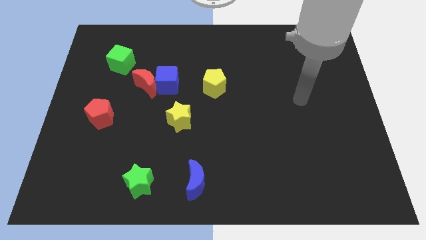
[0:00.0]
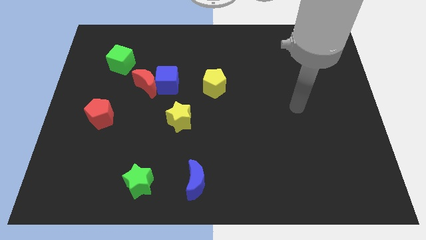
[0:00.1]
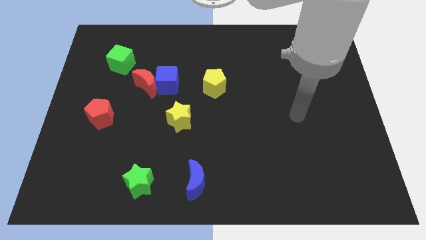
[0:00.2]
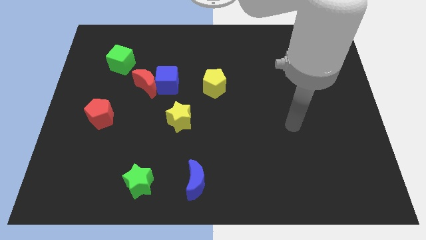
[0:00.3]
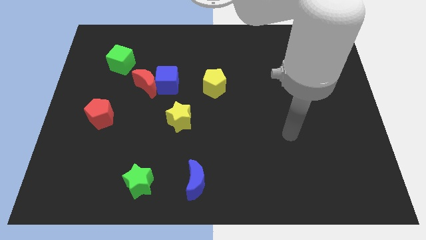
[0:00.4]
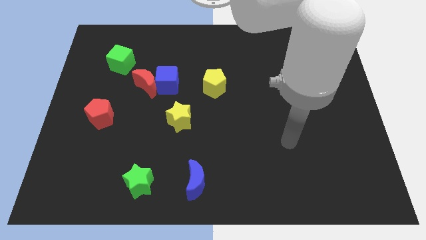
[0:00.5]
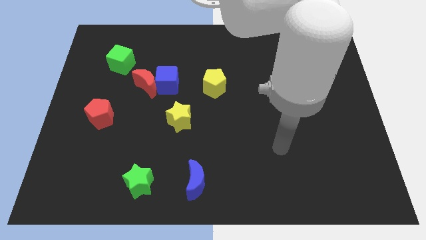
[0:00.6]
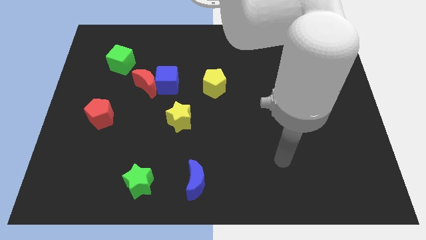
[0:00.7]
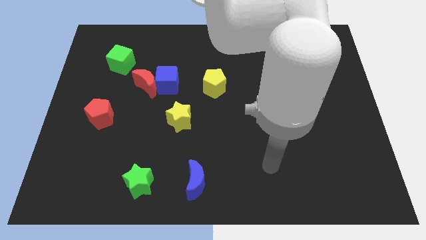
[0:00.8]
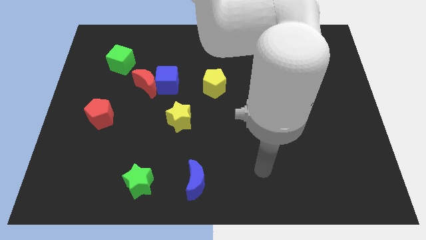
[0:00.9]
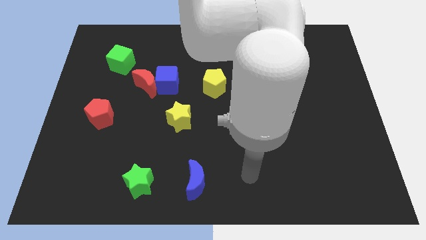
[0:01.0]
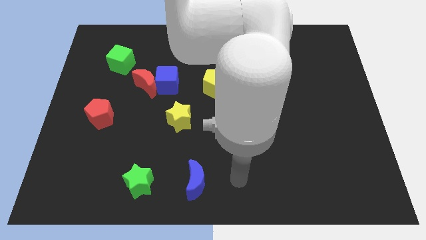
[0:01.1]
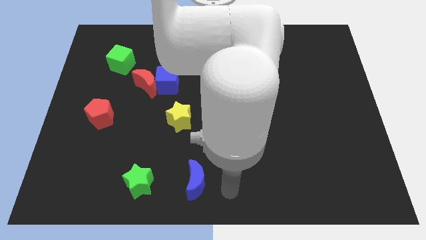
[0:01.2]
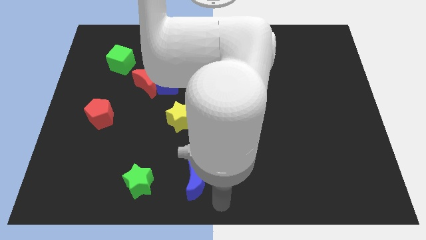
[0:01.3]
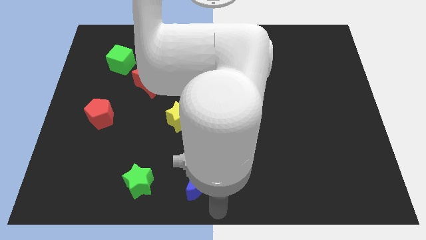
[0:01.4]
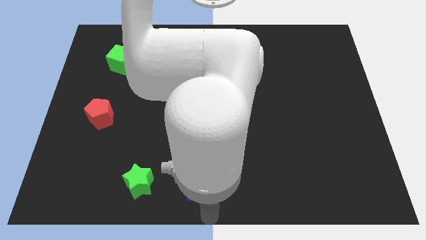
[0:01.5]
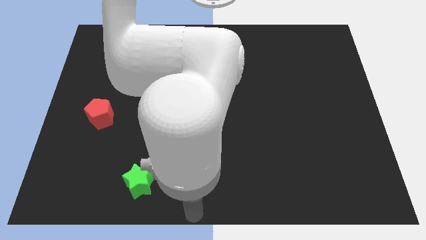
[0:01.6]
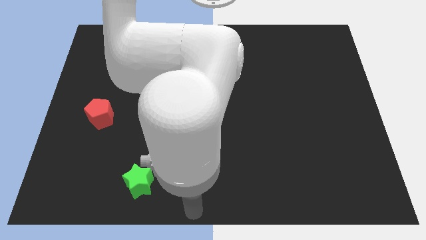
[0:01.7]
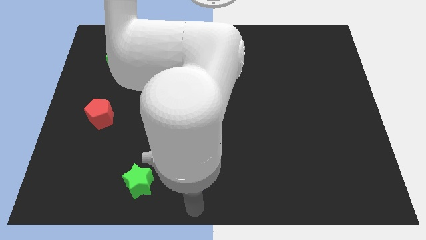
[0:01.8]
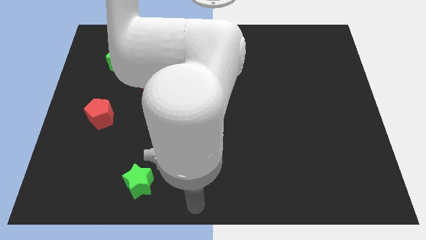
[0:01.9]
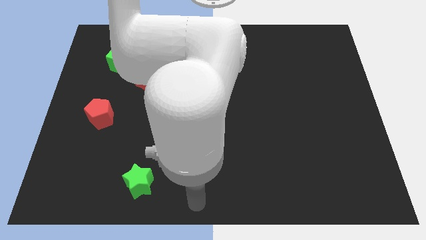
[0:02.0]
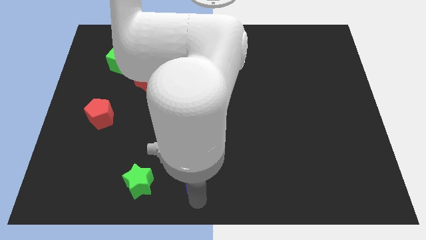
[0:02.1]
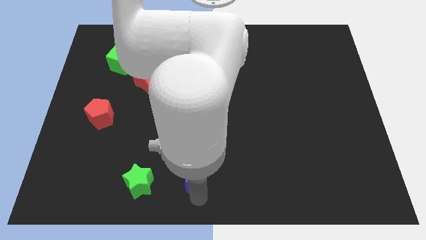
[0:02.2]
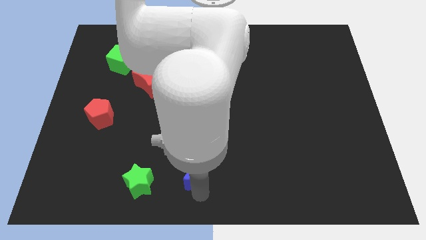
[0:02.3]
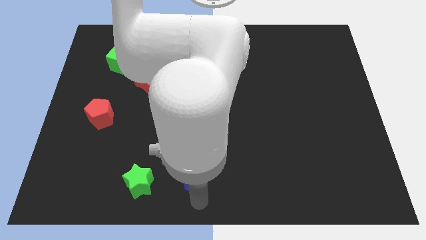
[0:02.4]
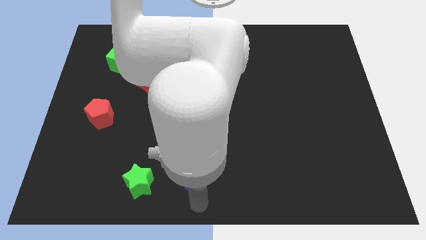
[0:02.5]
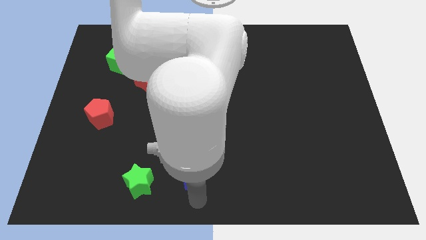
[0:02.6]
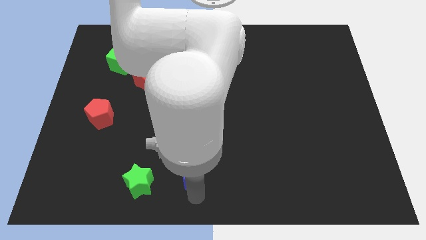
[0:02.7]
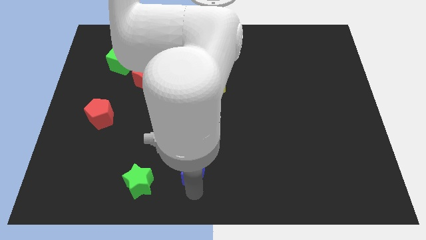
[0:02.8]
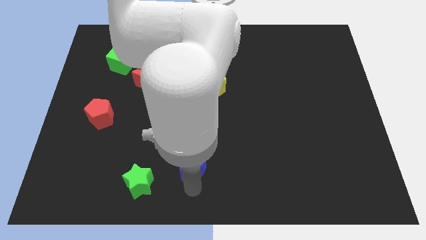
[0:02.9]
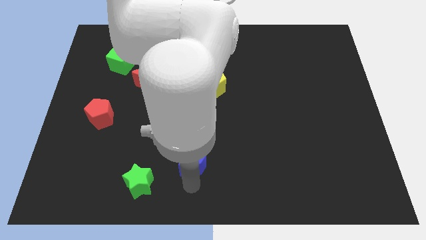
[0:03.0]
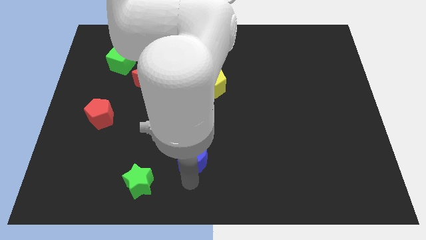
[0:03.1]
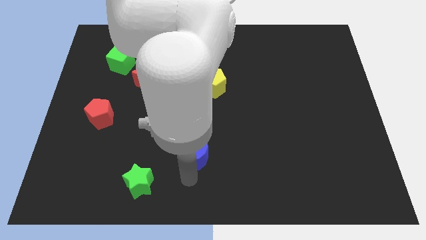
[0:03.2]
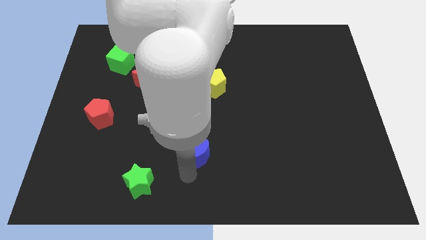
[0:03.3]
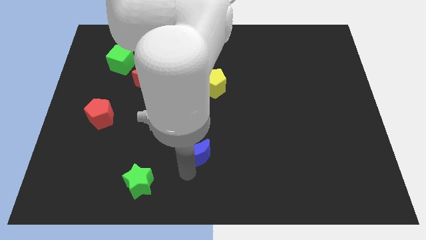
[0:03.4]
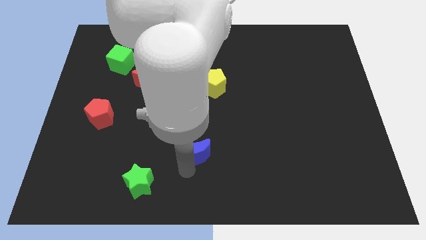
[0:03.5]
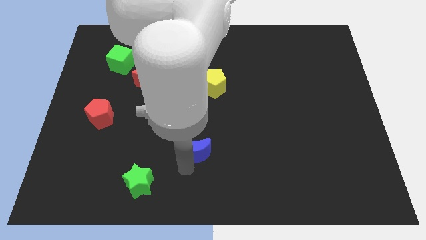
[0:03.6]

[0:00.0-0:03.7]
push the blue moon a bit upwards

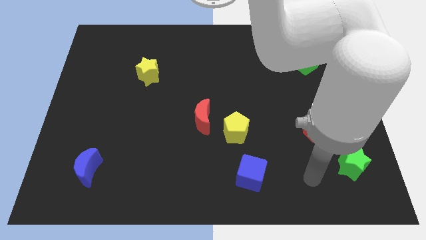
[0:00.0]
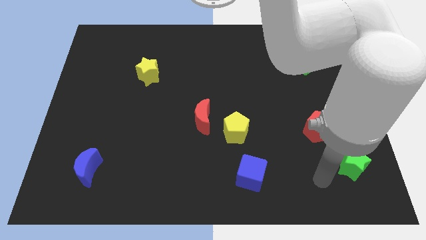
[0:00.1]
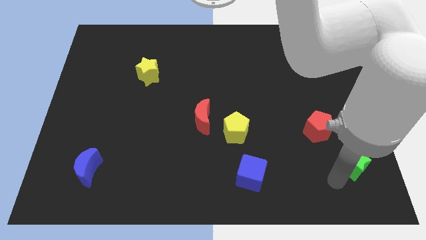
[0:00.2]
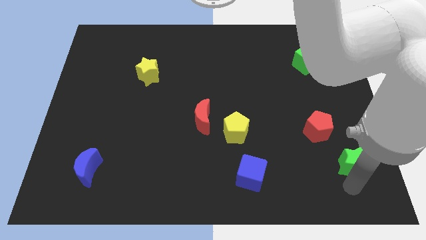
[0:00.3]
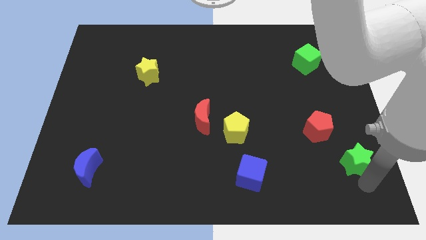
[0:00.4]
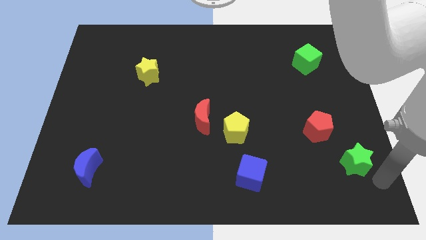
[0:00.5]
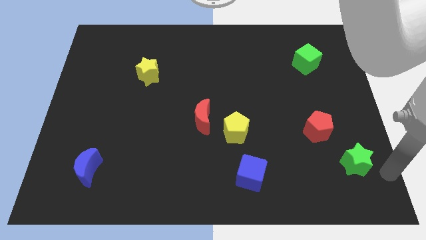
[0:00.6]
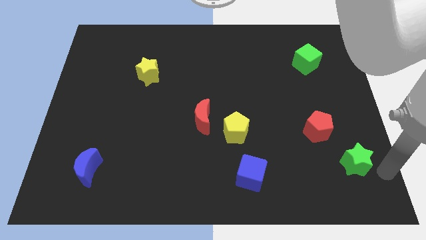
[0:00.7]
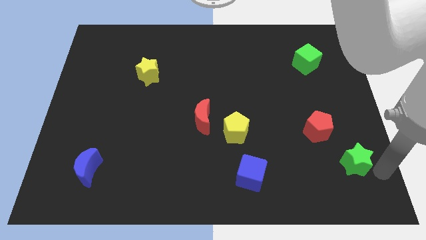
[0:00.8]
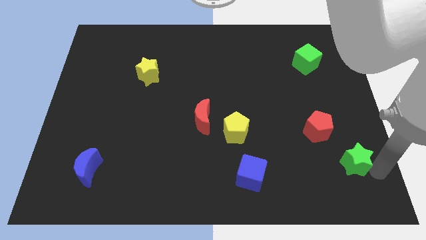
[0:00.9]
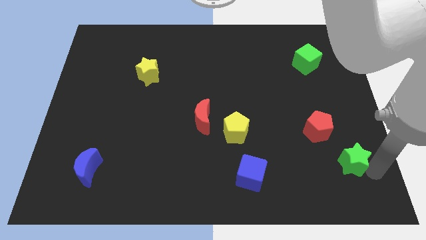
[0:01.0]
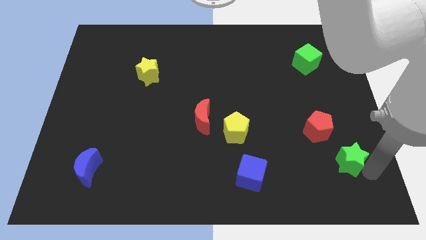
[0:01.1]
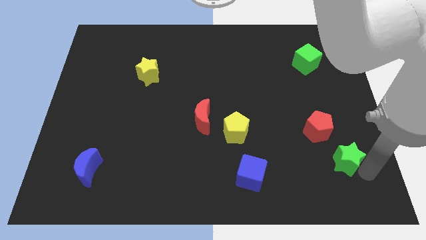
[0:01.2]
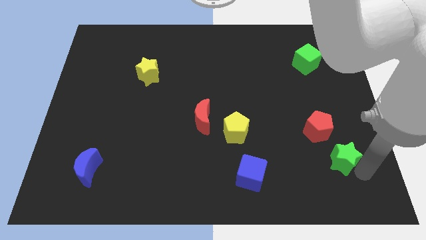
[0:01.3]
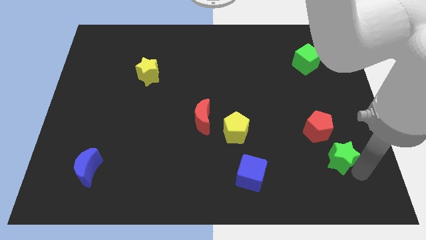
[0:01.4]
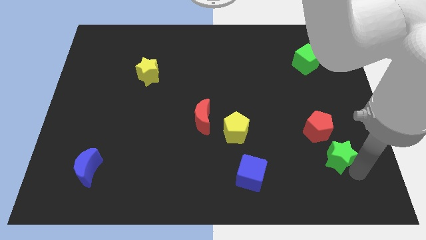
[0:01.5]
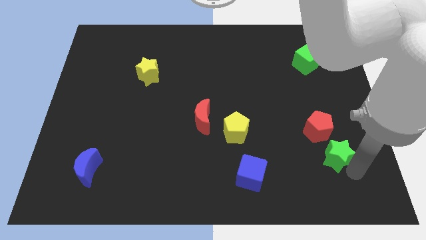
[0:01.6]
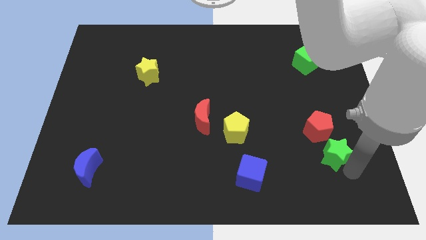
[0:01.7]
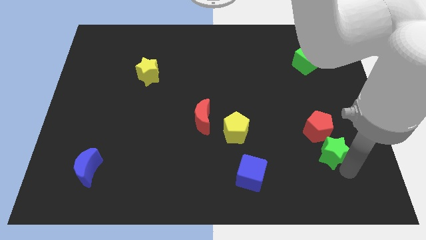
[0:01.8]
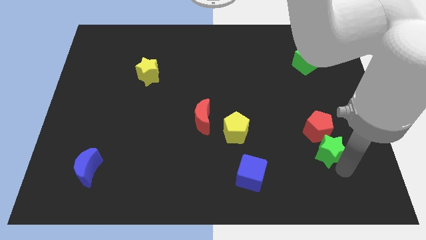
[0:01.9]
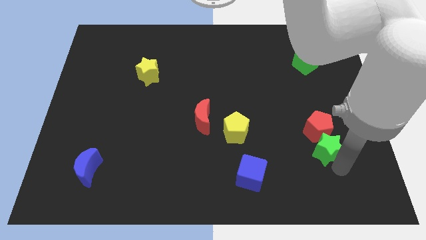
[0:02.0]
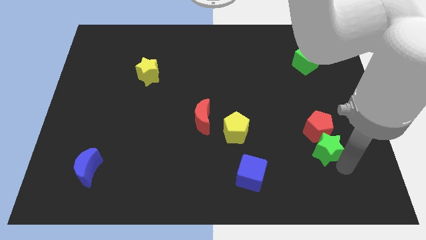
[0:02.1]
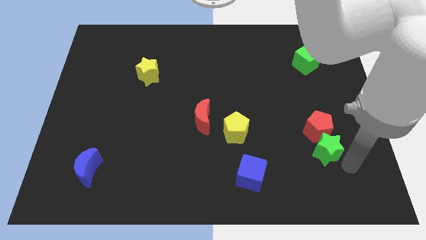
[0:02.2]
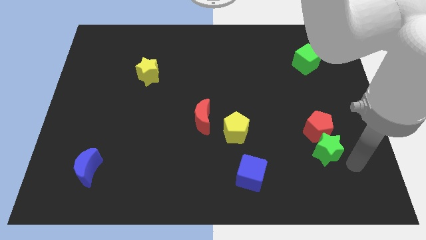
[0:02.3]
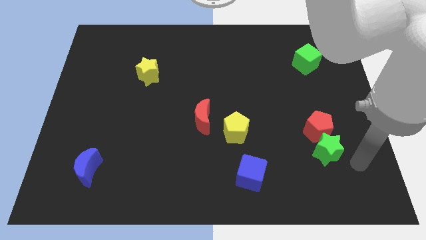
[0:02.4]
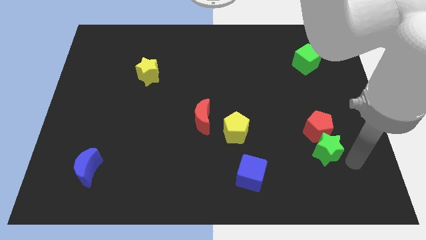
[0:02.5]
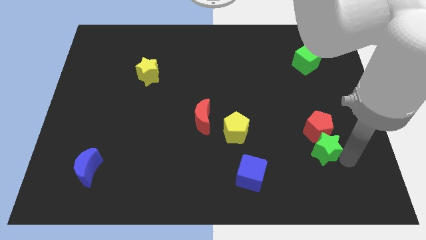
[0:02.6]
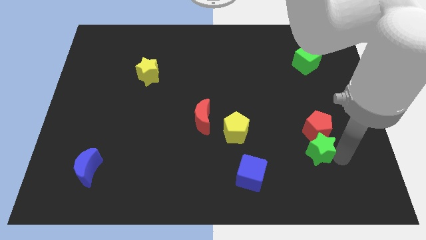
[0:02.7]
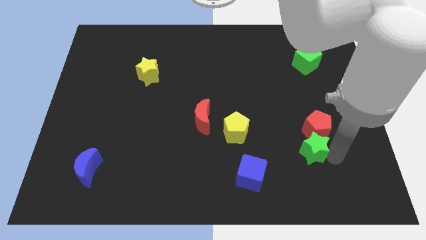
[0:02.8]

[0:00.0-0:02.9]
push the green star somewhat up and left

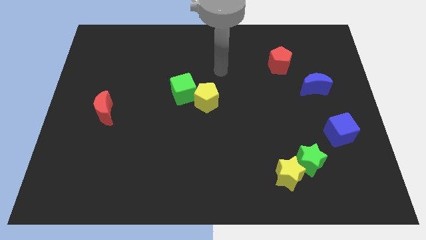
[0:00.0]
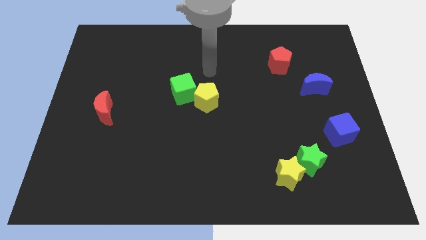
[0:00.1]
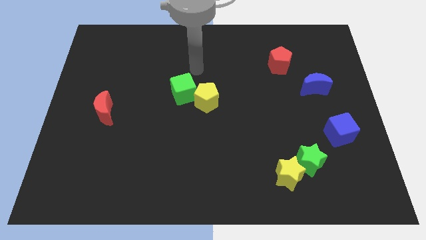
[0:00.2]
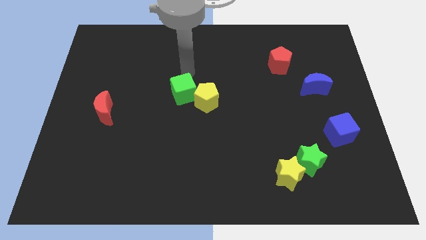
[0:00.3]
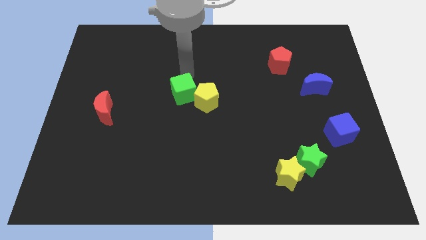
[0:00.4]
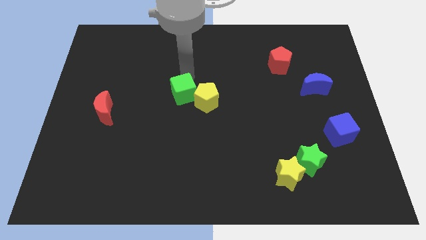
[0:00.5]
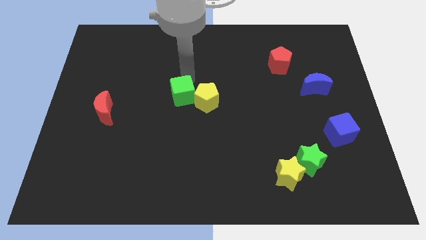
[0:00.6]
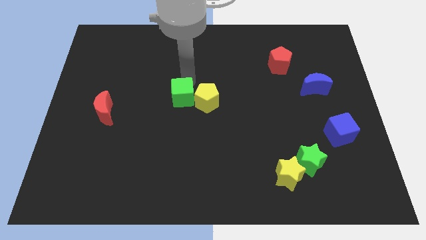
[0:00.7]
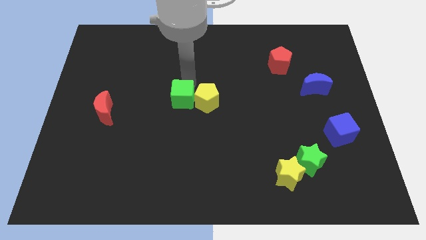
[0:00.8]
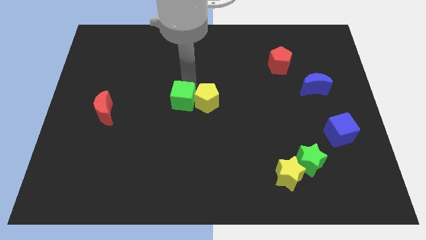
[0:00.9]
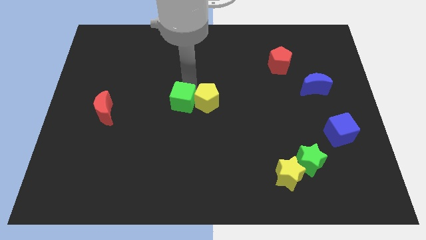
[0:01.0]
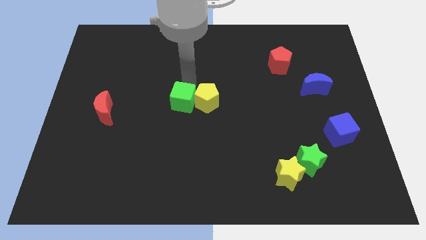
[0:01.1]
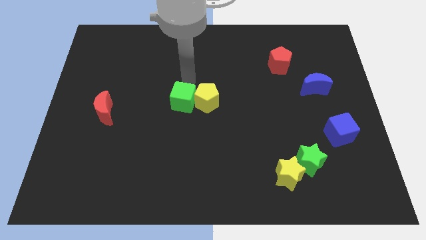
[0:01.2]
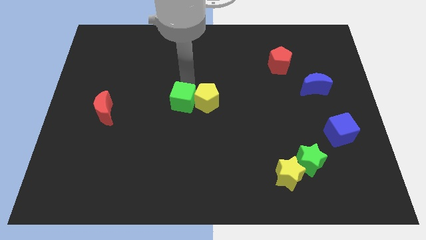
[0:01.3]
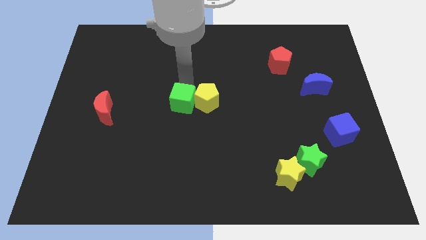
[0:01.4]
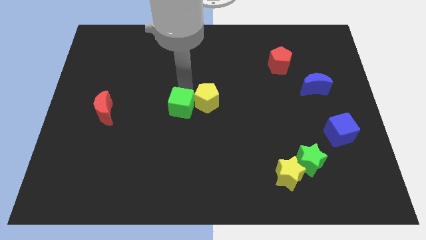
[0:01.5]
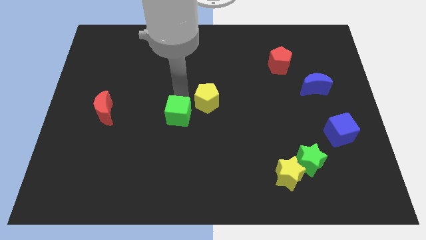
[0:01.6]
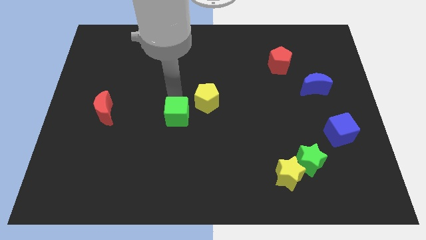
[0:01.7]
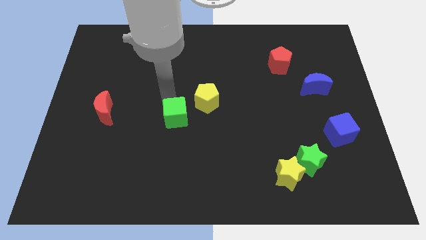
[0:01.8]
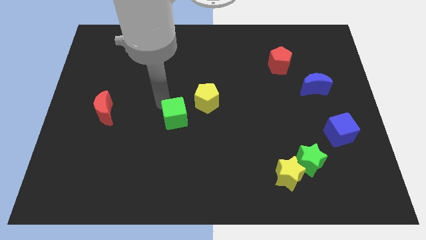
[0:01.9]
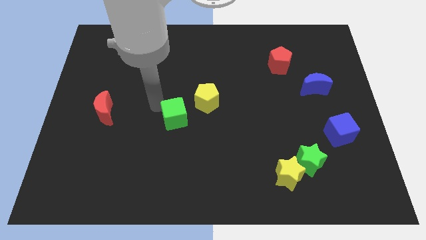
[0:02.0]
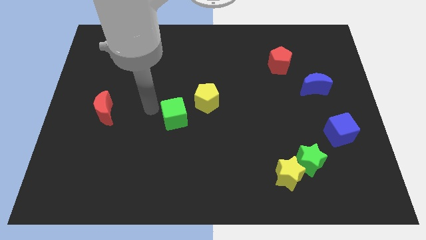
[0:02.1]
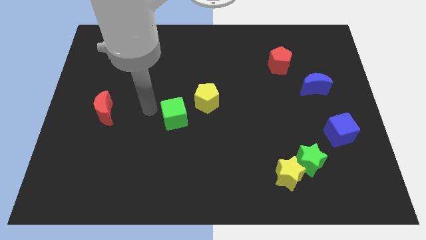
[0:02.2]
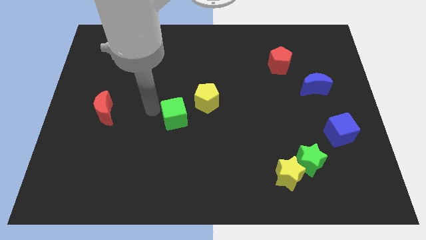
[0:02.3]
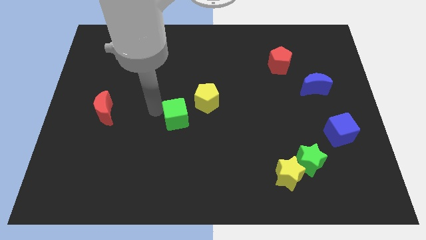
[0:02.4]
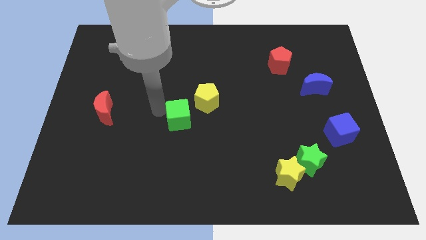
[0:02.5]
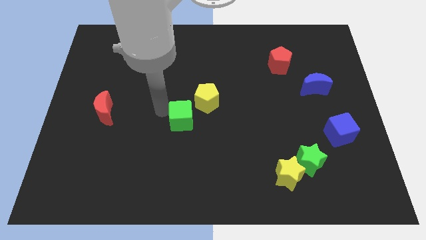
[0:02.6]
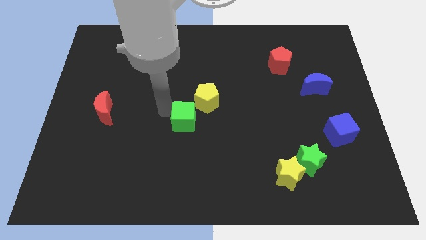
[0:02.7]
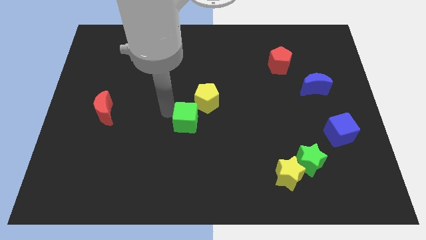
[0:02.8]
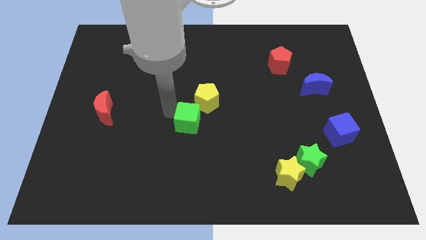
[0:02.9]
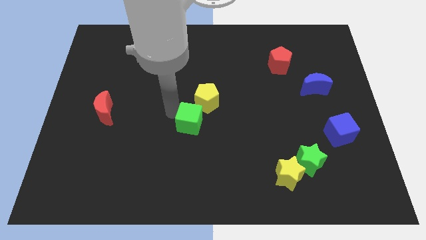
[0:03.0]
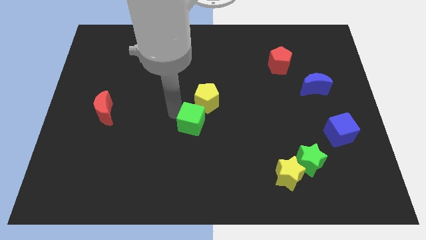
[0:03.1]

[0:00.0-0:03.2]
slide the green cube slightly down and then right
